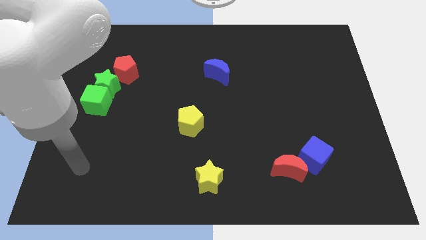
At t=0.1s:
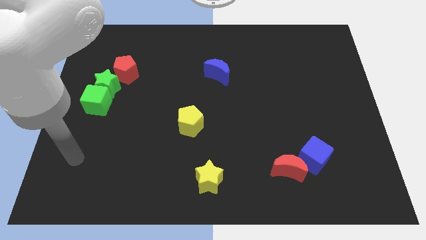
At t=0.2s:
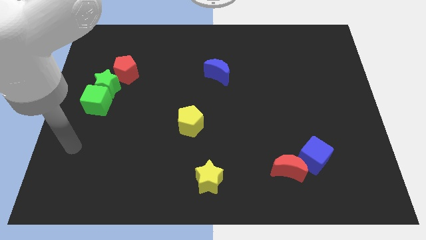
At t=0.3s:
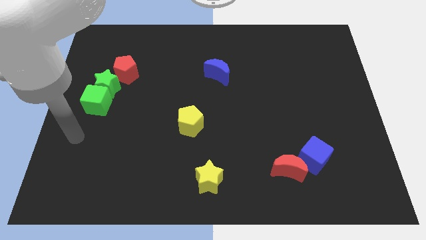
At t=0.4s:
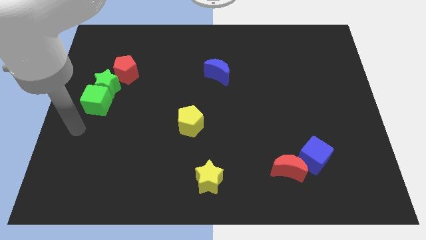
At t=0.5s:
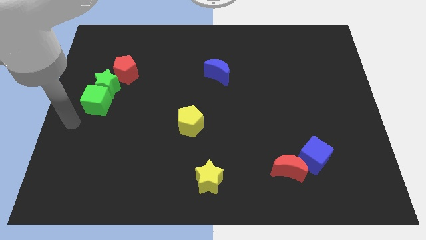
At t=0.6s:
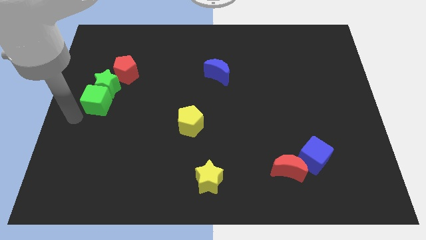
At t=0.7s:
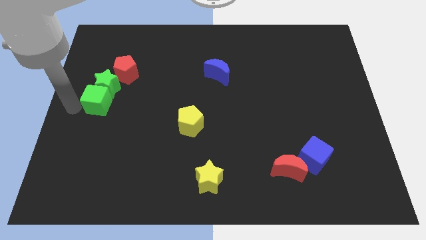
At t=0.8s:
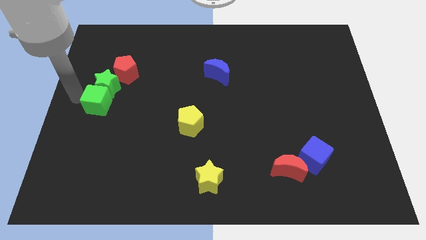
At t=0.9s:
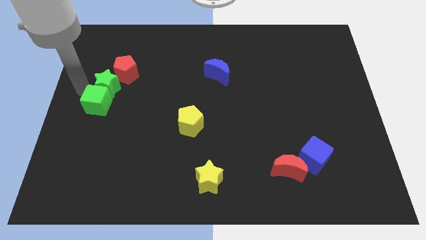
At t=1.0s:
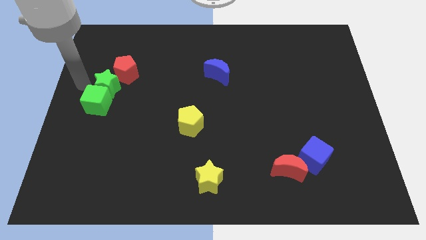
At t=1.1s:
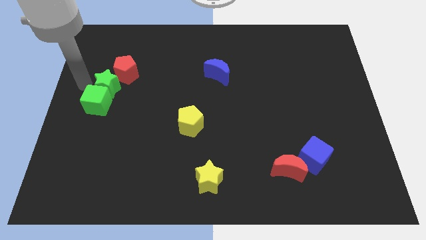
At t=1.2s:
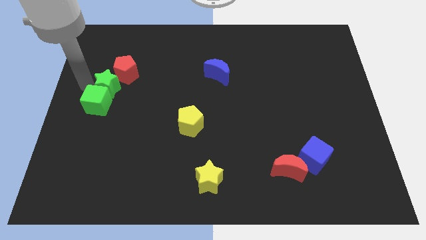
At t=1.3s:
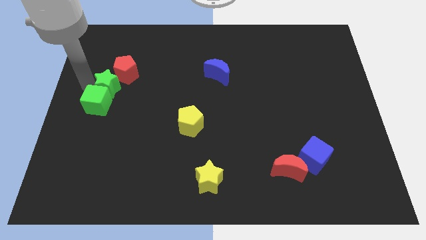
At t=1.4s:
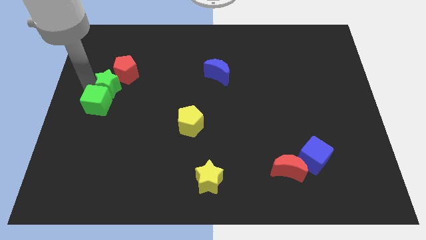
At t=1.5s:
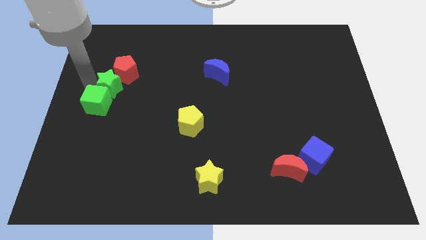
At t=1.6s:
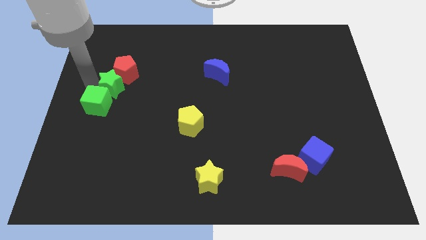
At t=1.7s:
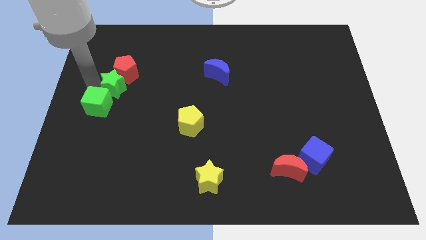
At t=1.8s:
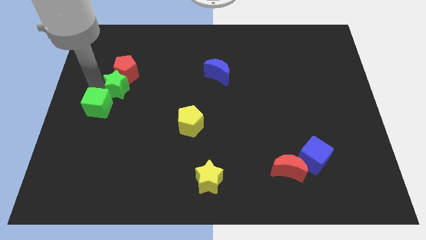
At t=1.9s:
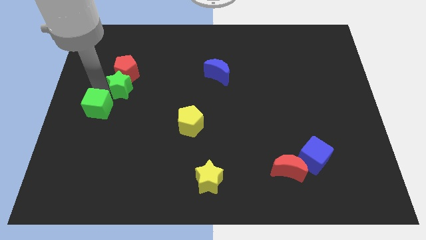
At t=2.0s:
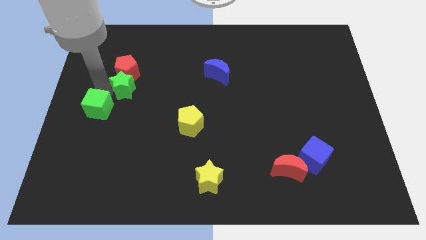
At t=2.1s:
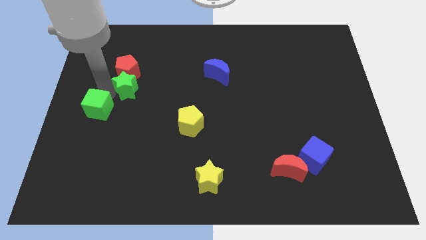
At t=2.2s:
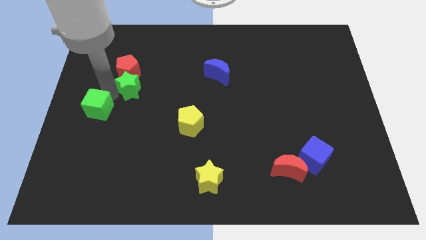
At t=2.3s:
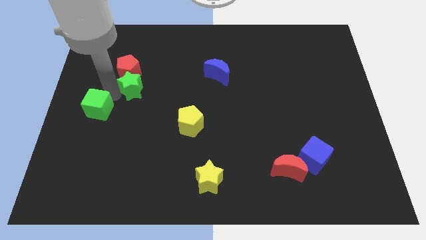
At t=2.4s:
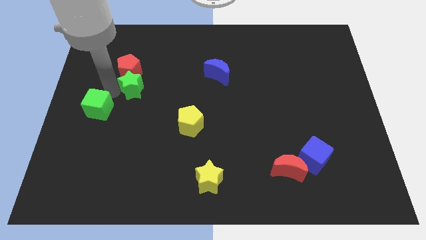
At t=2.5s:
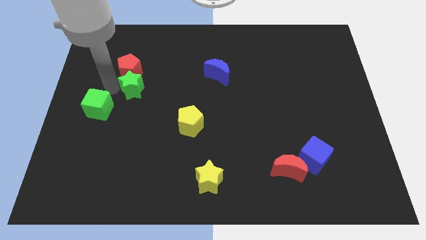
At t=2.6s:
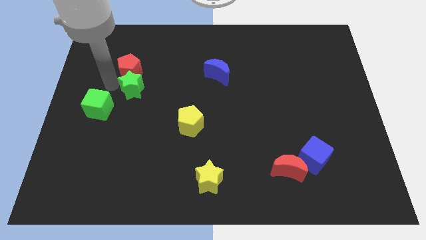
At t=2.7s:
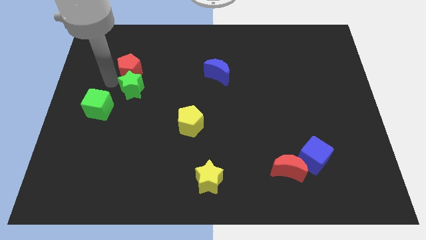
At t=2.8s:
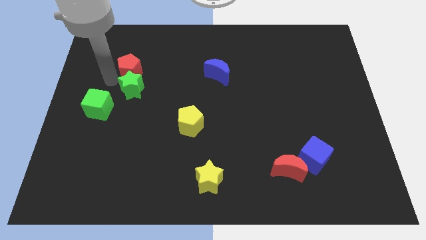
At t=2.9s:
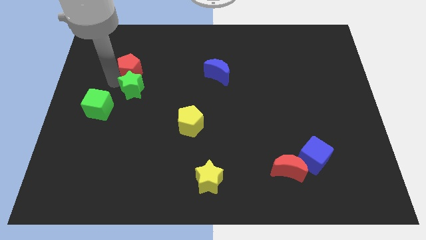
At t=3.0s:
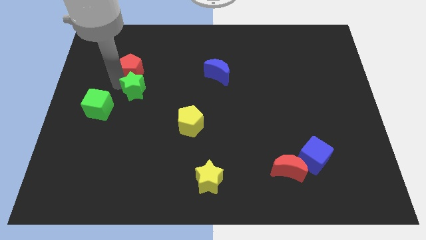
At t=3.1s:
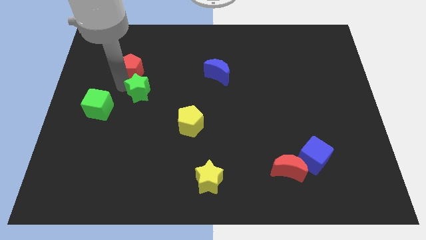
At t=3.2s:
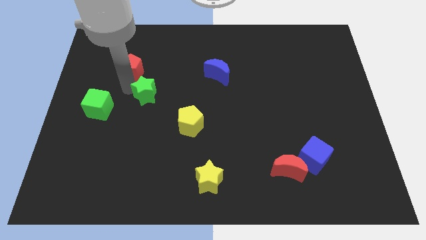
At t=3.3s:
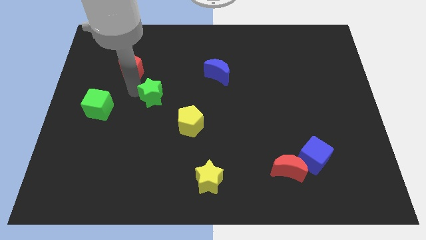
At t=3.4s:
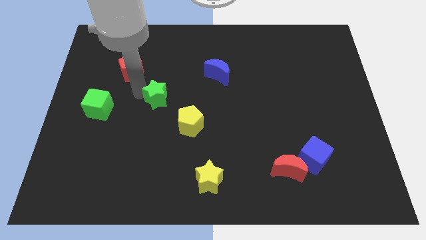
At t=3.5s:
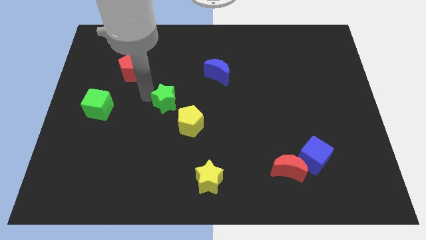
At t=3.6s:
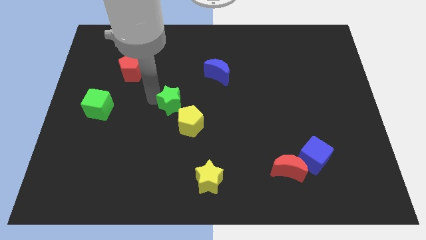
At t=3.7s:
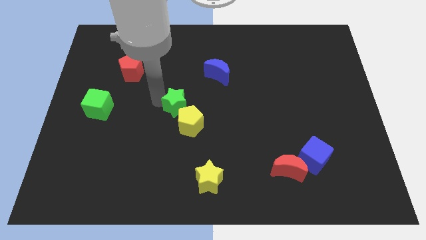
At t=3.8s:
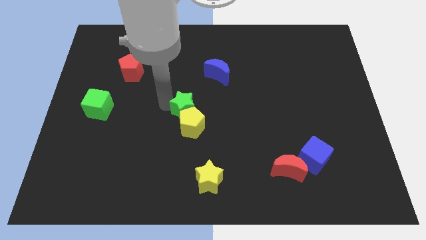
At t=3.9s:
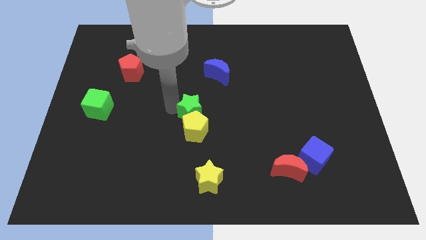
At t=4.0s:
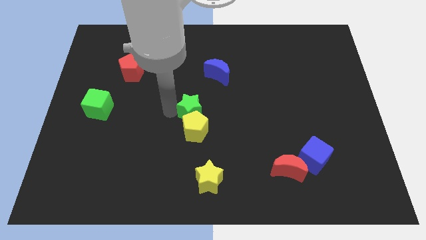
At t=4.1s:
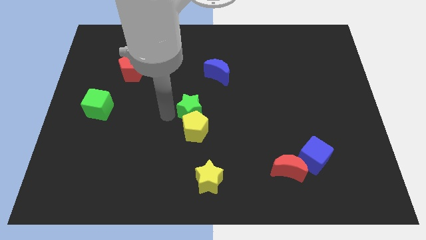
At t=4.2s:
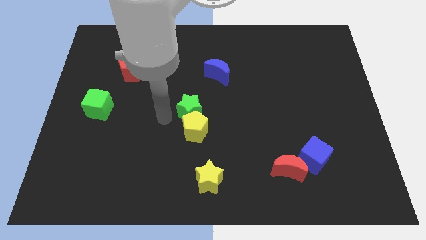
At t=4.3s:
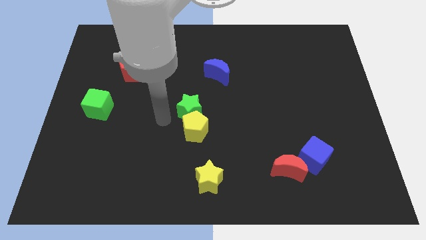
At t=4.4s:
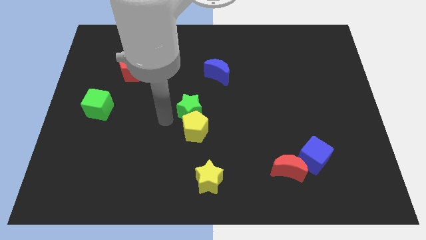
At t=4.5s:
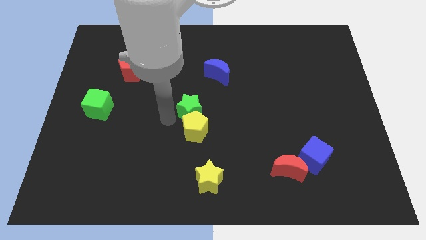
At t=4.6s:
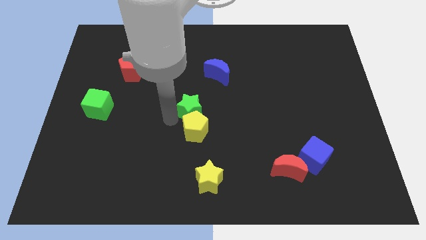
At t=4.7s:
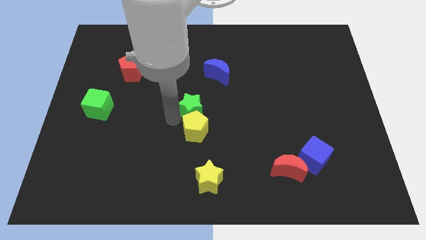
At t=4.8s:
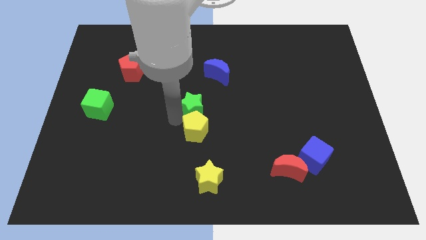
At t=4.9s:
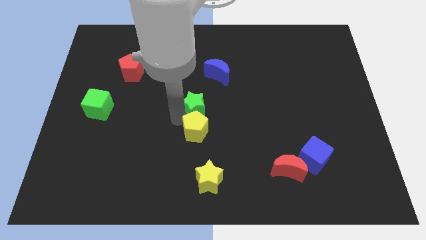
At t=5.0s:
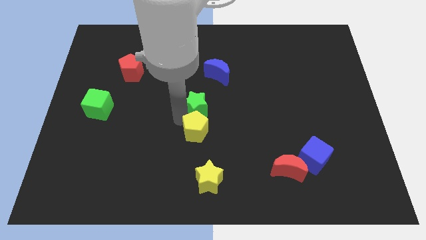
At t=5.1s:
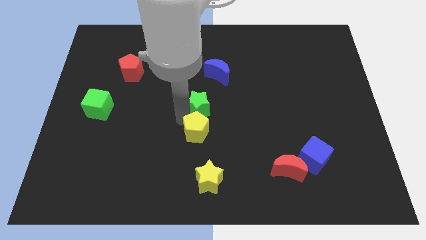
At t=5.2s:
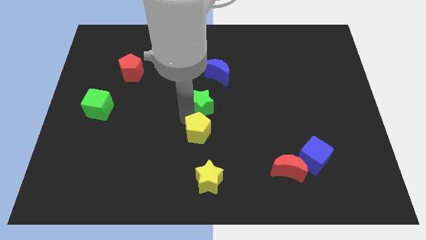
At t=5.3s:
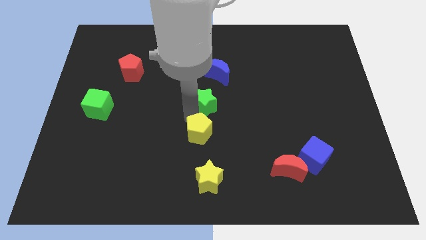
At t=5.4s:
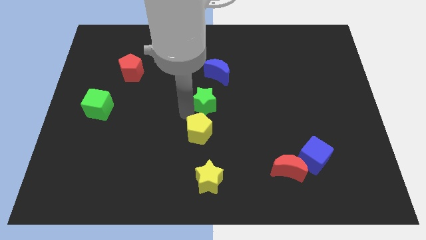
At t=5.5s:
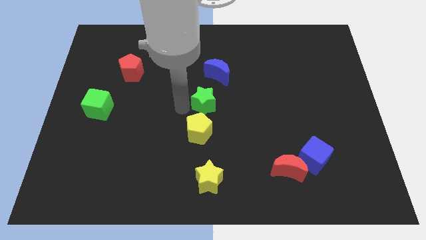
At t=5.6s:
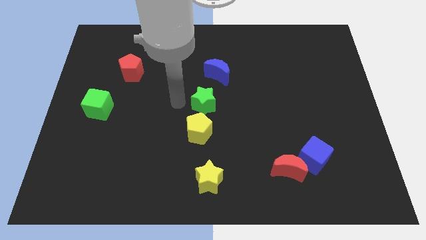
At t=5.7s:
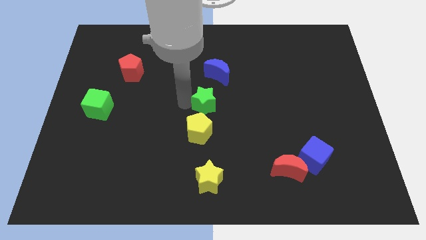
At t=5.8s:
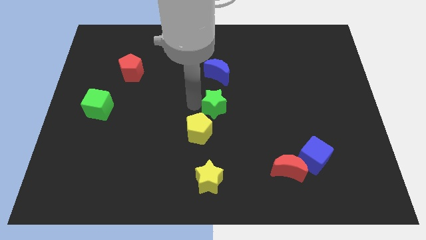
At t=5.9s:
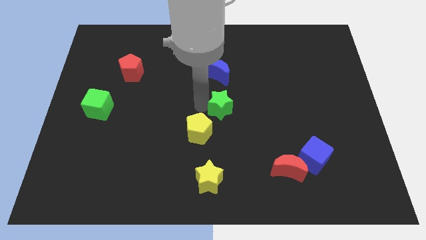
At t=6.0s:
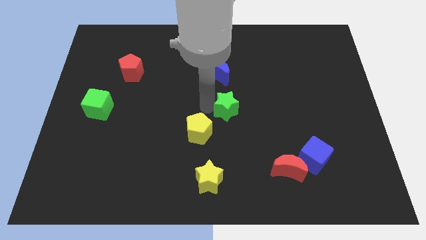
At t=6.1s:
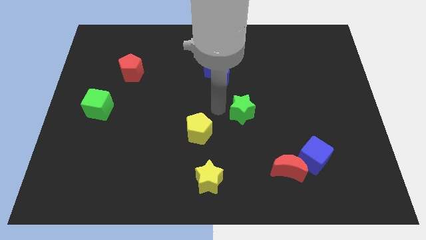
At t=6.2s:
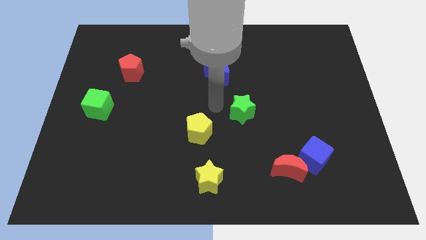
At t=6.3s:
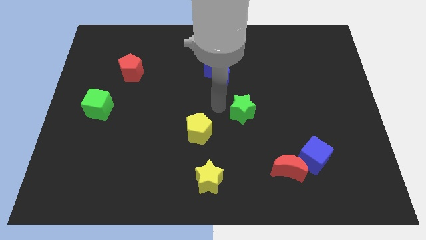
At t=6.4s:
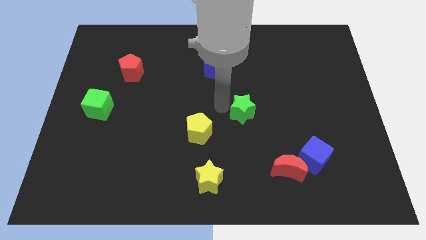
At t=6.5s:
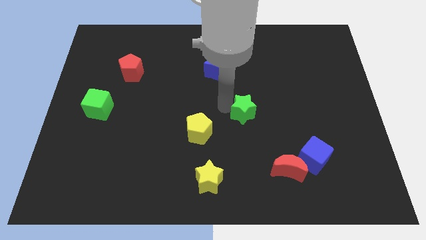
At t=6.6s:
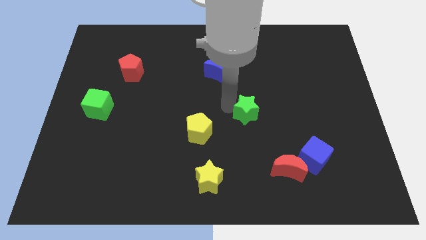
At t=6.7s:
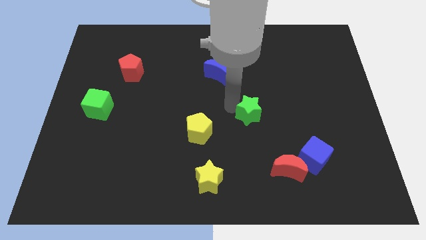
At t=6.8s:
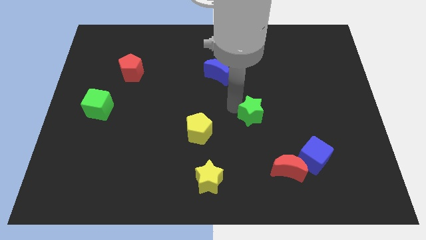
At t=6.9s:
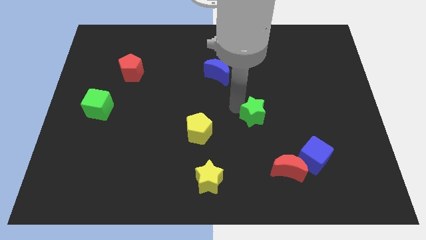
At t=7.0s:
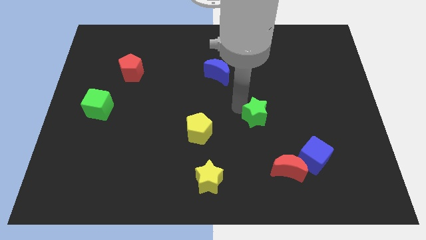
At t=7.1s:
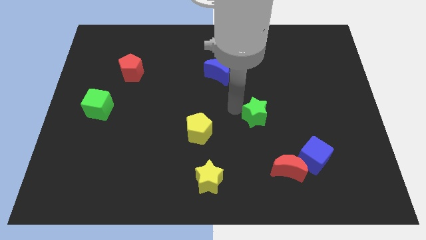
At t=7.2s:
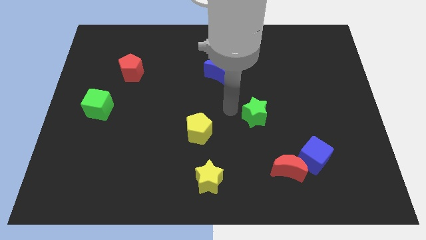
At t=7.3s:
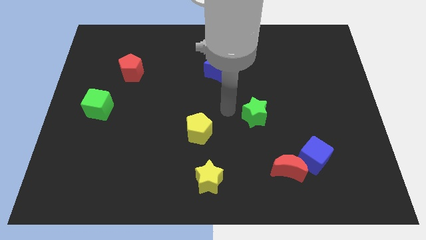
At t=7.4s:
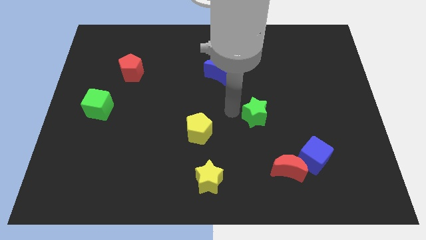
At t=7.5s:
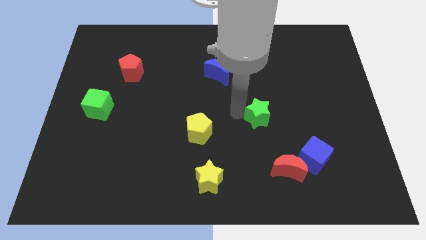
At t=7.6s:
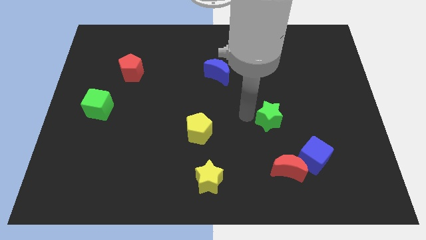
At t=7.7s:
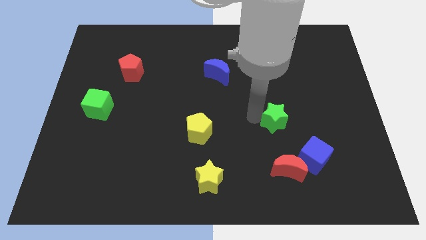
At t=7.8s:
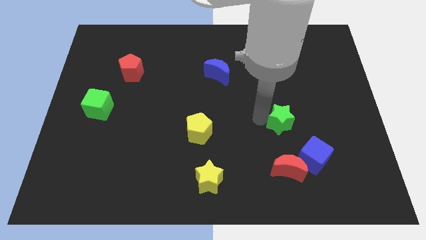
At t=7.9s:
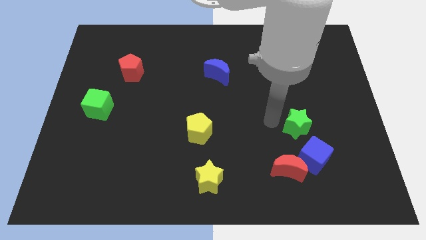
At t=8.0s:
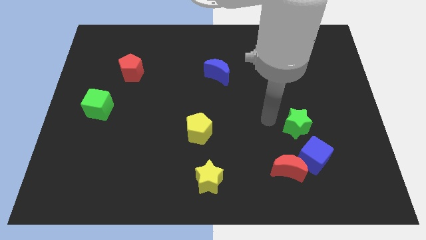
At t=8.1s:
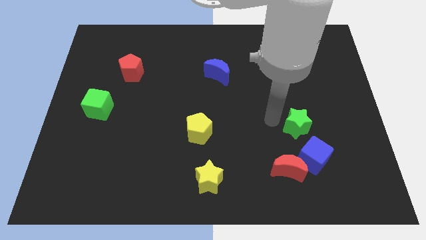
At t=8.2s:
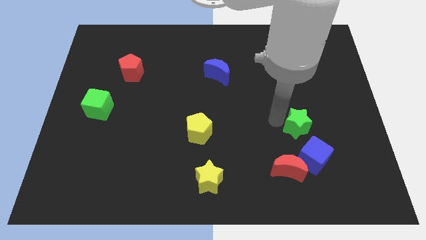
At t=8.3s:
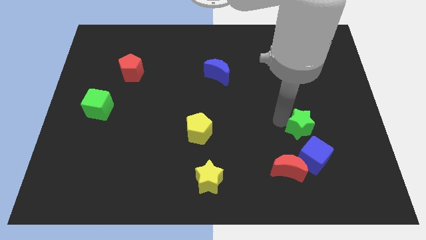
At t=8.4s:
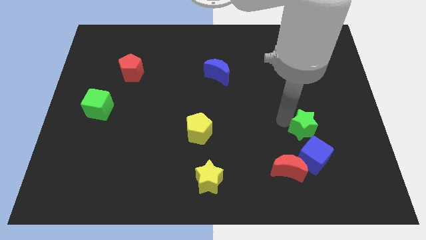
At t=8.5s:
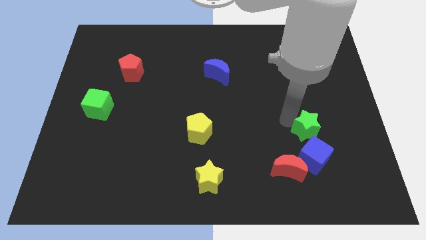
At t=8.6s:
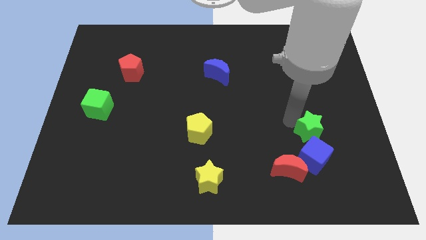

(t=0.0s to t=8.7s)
put the green star to the top right side of the blue cube
